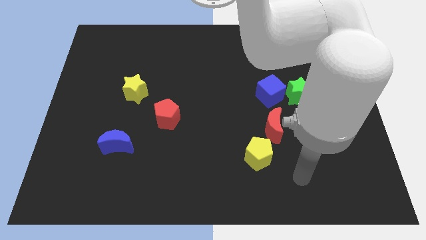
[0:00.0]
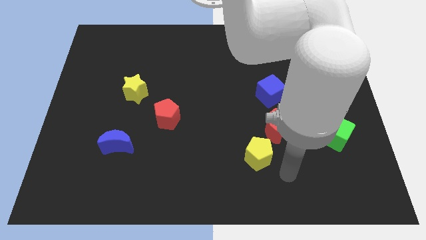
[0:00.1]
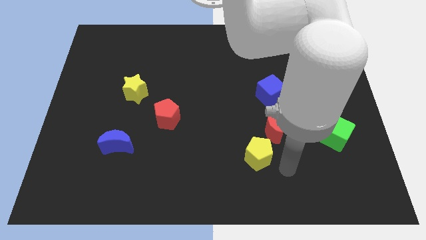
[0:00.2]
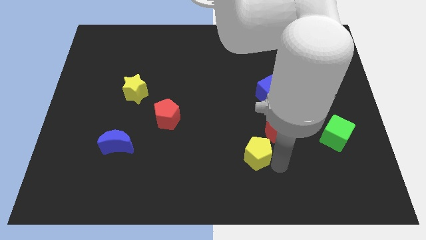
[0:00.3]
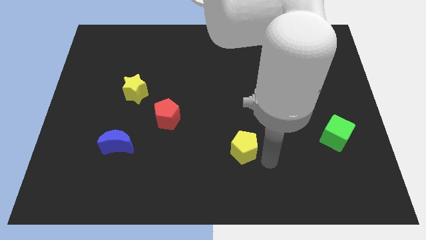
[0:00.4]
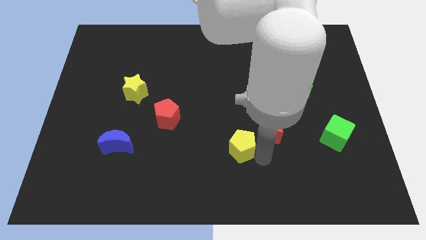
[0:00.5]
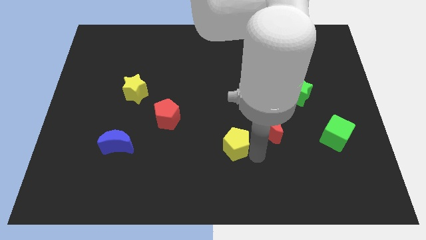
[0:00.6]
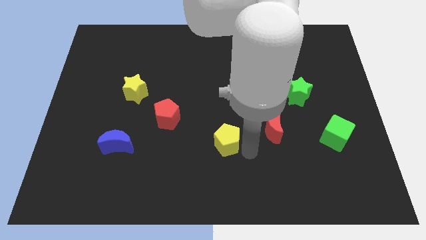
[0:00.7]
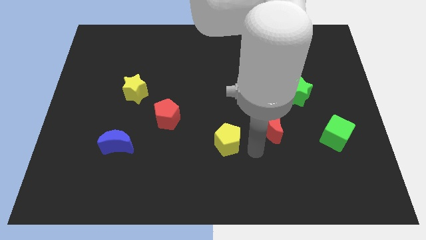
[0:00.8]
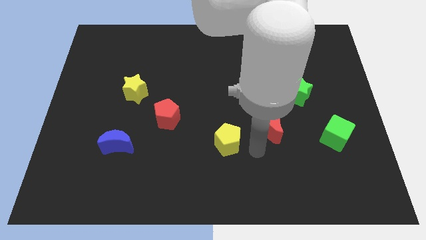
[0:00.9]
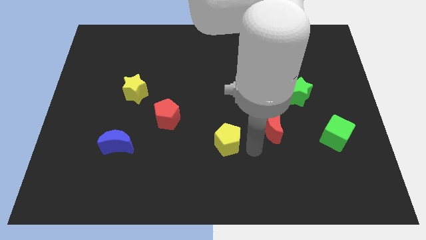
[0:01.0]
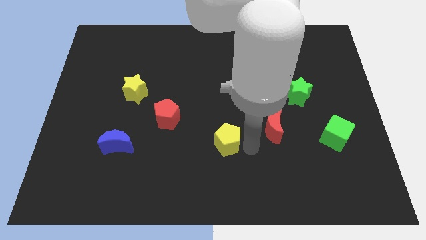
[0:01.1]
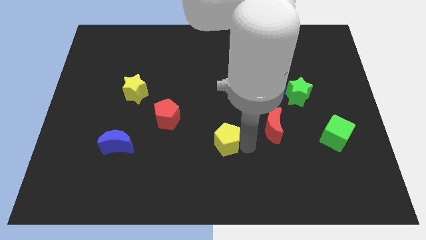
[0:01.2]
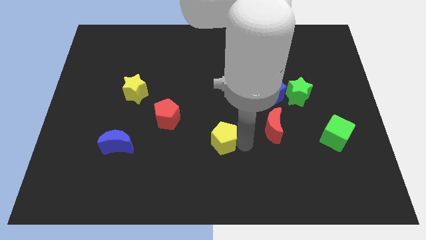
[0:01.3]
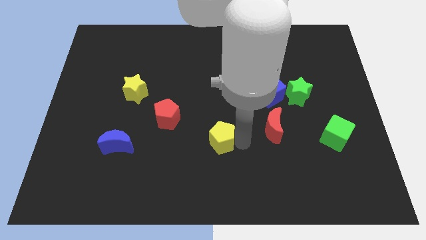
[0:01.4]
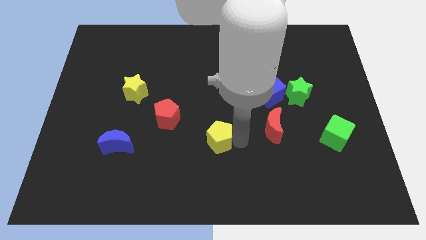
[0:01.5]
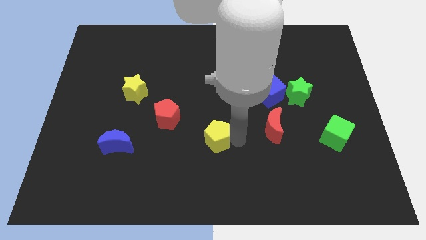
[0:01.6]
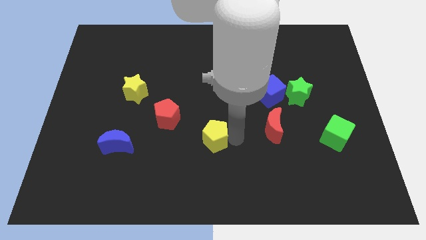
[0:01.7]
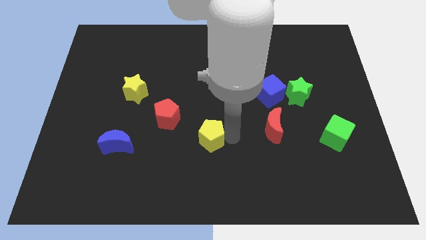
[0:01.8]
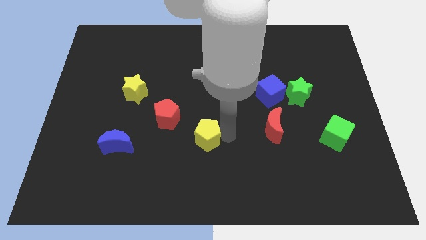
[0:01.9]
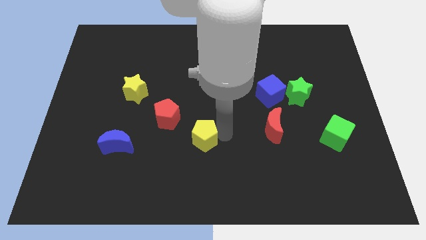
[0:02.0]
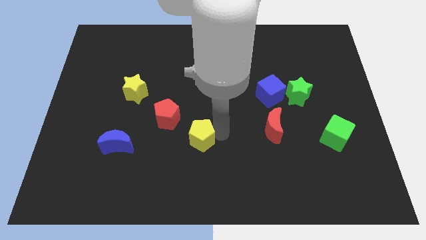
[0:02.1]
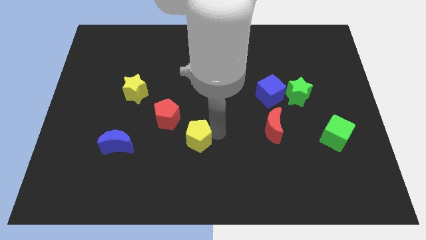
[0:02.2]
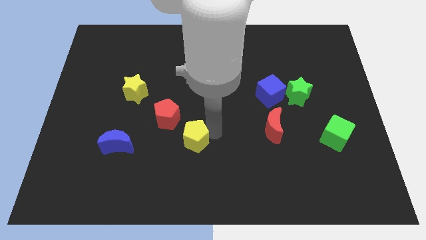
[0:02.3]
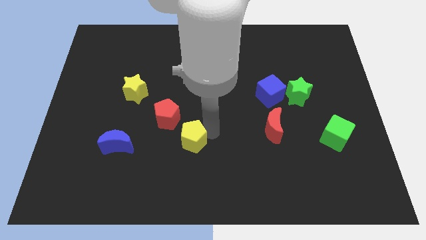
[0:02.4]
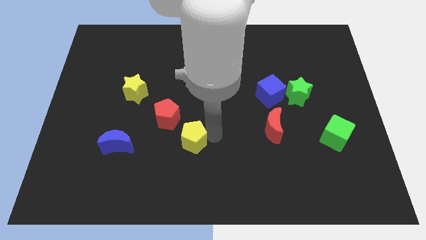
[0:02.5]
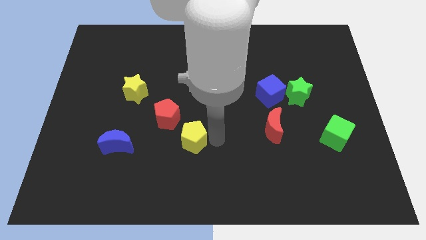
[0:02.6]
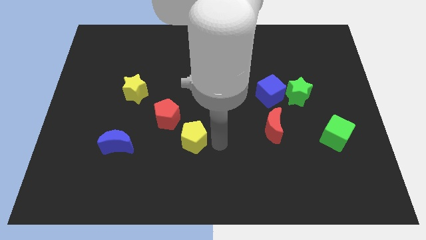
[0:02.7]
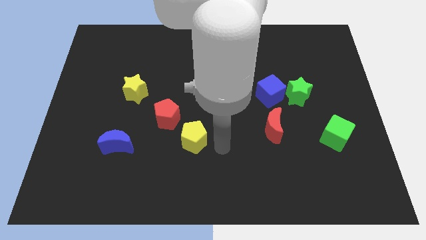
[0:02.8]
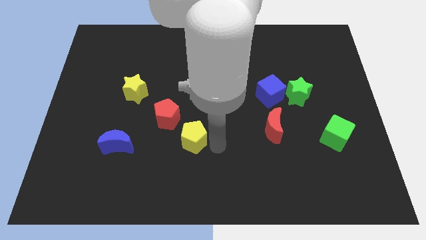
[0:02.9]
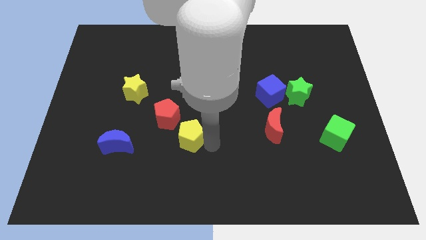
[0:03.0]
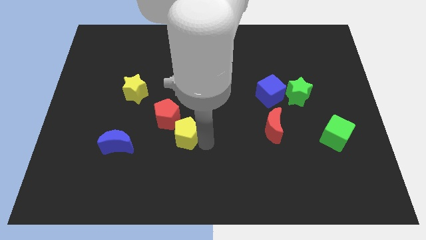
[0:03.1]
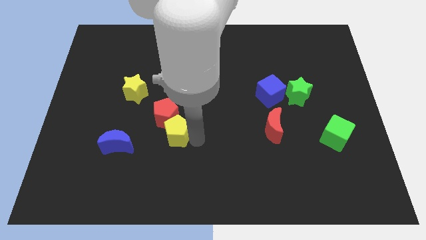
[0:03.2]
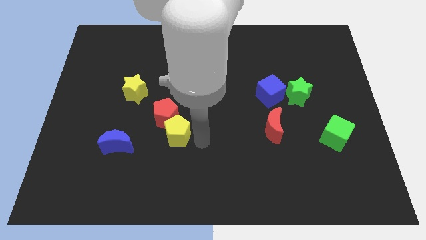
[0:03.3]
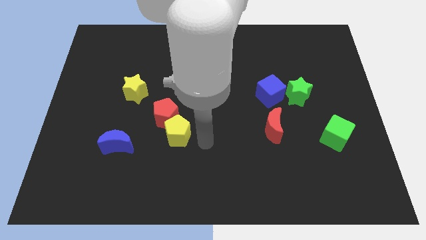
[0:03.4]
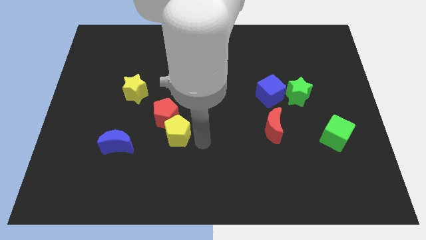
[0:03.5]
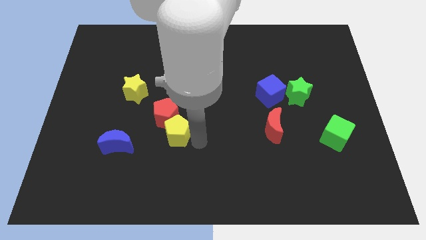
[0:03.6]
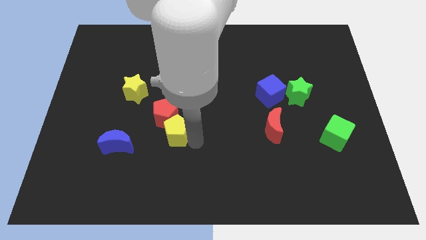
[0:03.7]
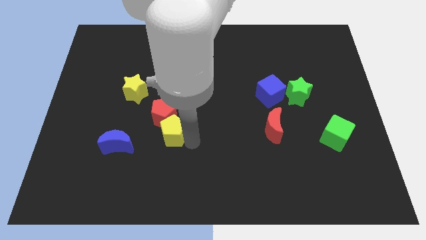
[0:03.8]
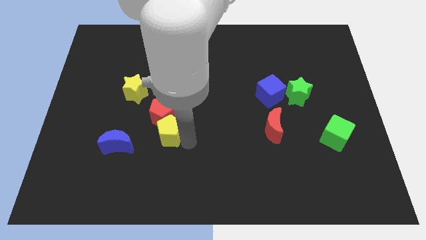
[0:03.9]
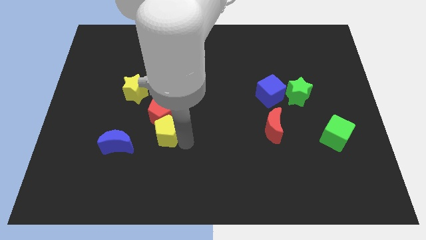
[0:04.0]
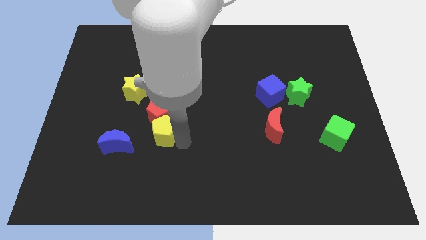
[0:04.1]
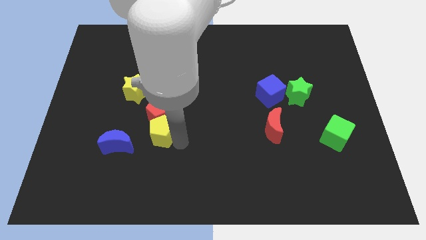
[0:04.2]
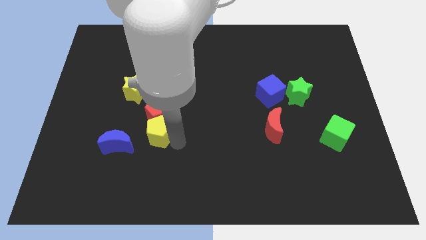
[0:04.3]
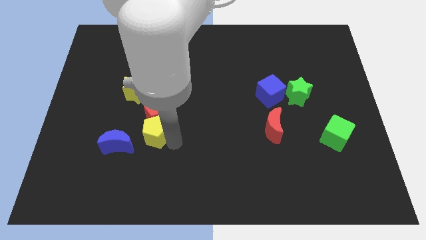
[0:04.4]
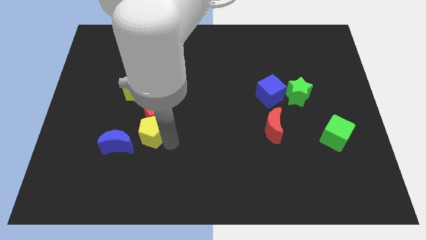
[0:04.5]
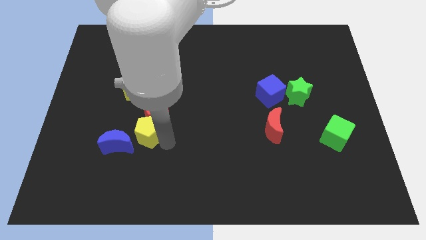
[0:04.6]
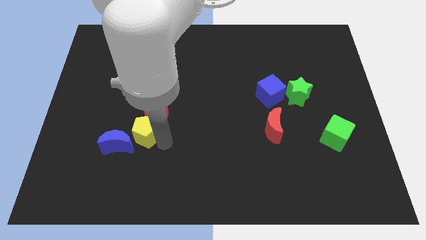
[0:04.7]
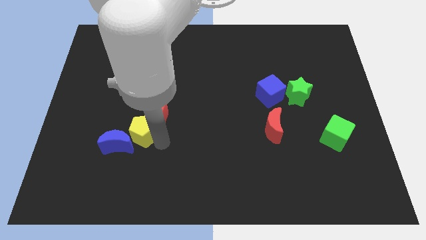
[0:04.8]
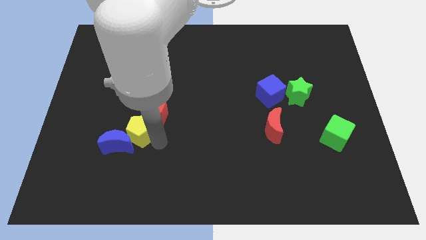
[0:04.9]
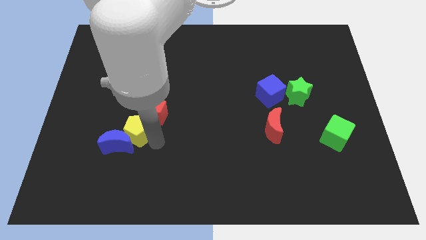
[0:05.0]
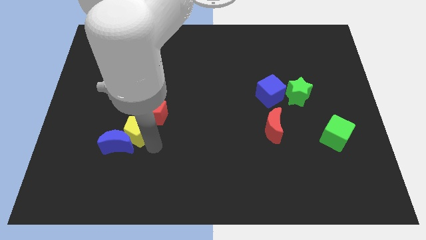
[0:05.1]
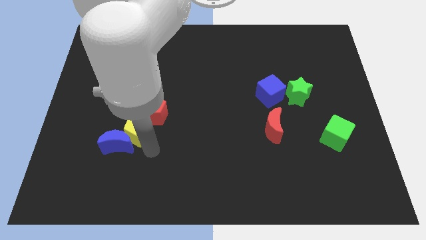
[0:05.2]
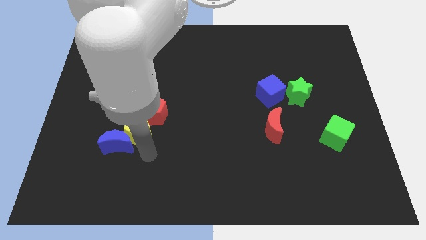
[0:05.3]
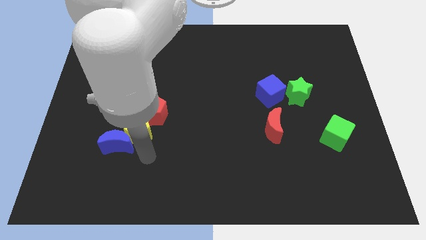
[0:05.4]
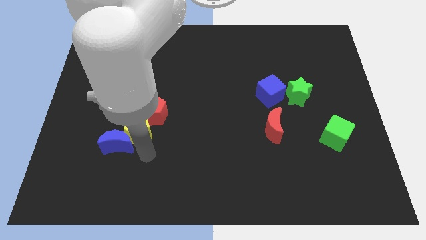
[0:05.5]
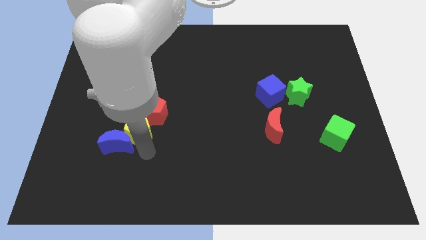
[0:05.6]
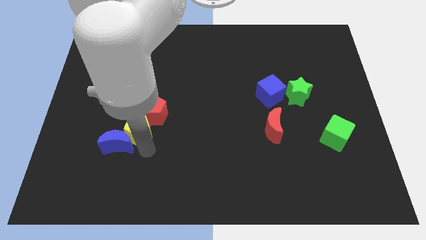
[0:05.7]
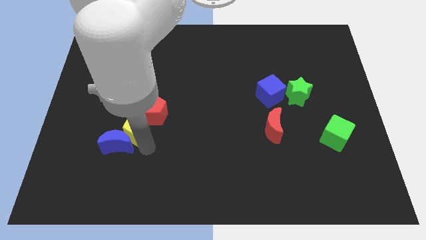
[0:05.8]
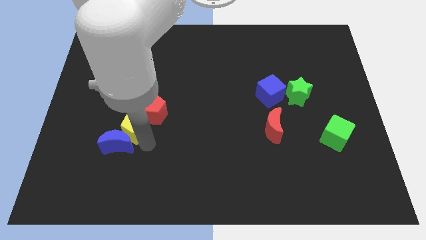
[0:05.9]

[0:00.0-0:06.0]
put the yellow pentagon just left of the red pentagon

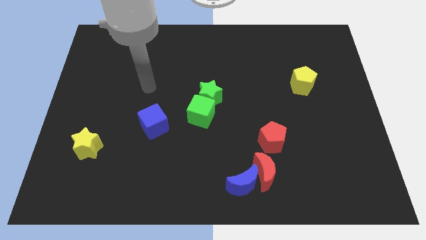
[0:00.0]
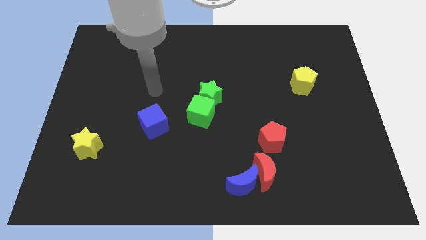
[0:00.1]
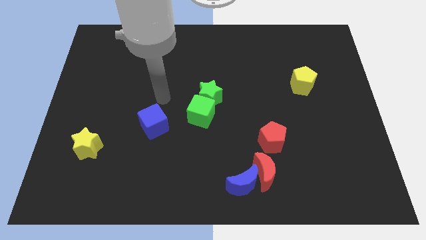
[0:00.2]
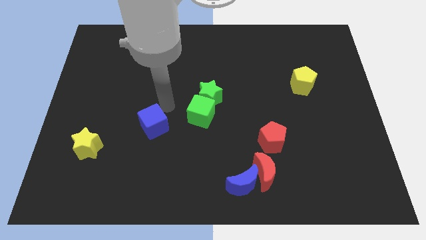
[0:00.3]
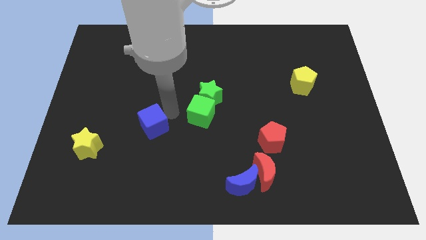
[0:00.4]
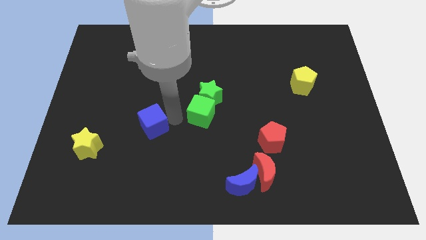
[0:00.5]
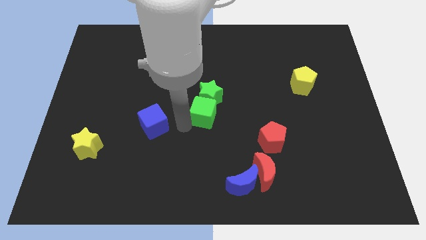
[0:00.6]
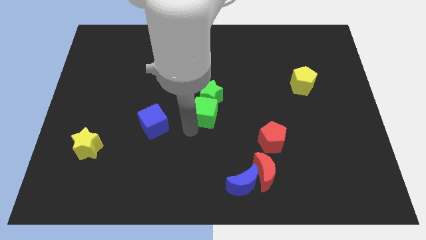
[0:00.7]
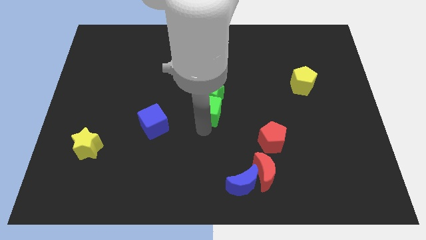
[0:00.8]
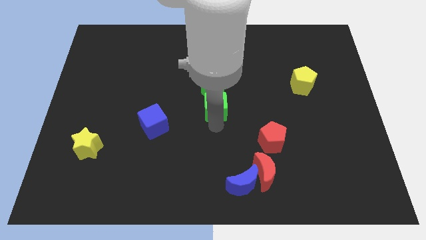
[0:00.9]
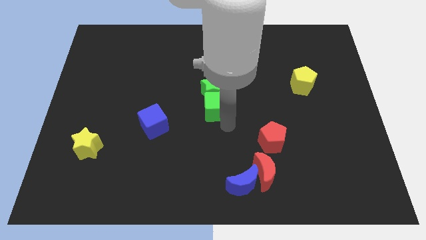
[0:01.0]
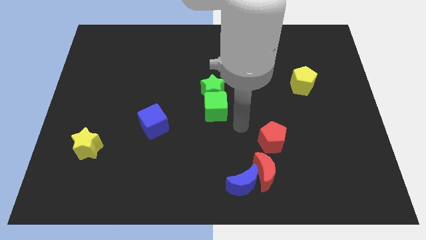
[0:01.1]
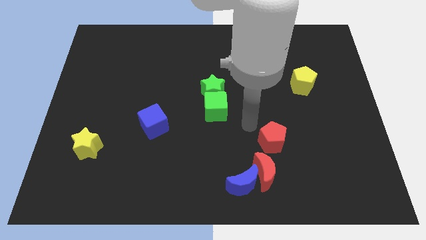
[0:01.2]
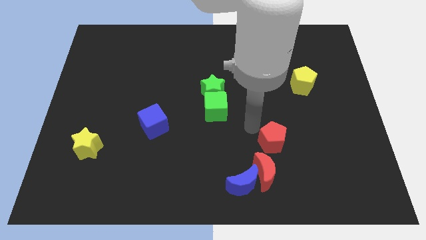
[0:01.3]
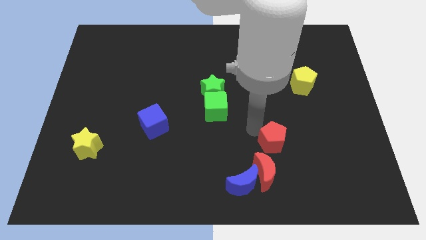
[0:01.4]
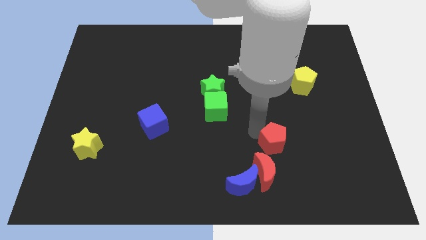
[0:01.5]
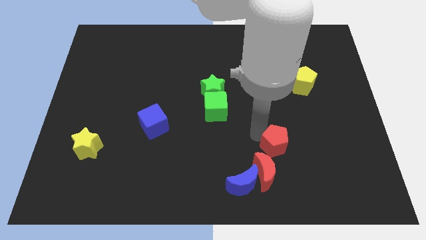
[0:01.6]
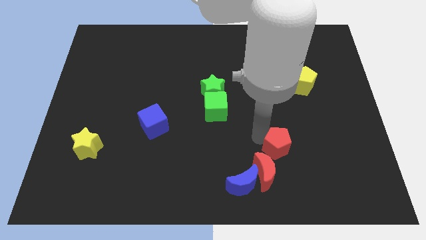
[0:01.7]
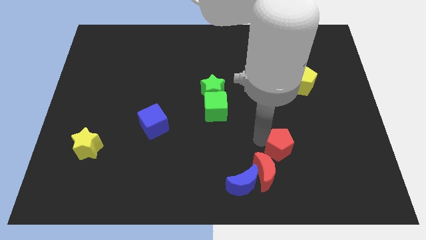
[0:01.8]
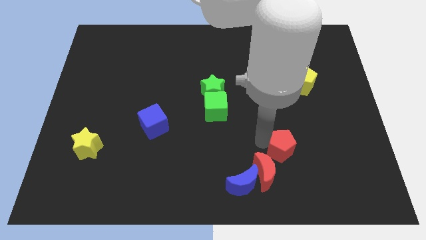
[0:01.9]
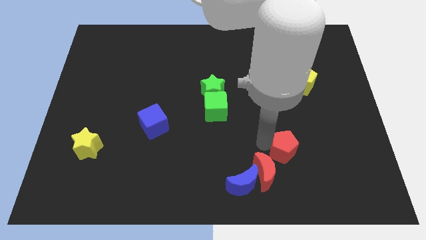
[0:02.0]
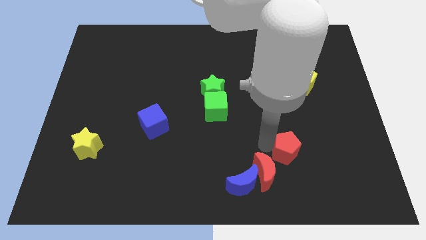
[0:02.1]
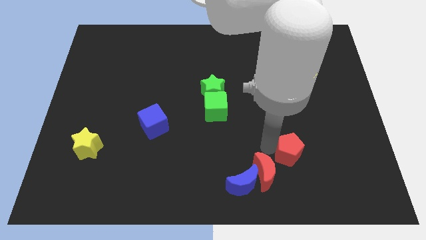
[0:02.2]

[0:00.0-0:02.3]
put the red pentagon right of the red moon
